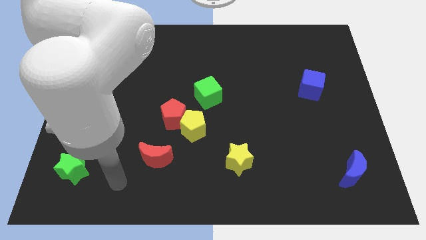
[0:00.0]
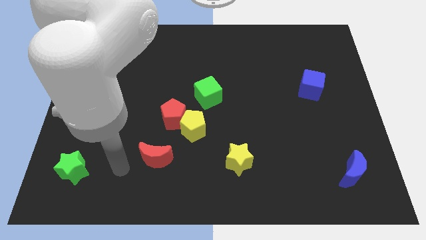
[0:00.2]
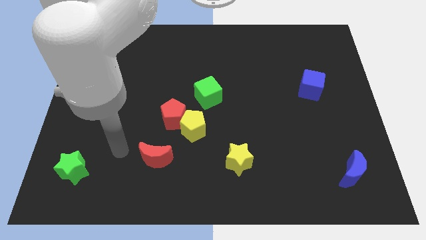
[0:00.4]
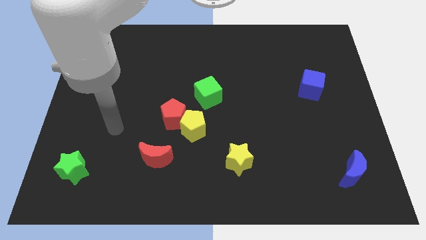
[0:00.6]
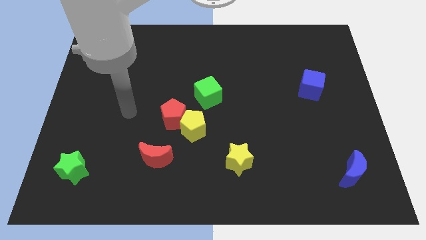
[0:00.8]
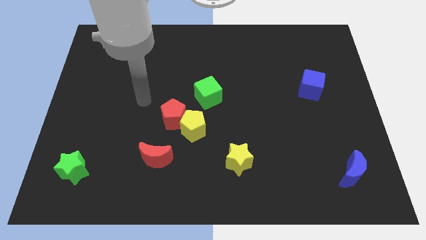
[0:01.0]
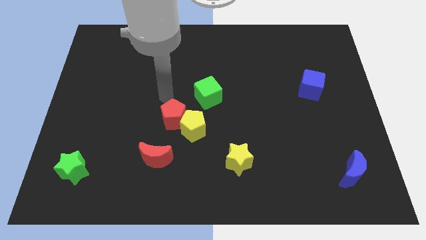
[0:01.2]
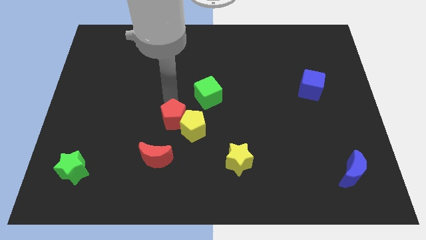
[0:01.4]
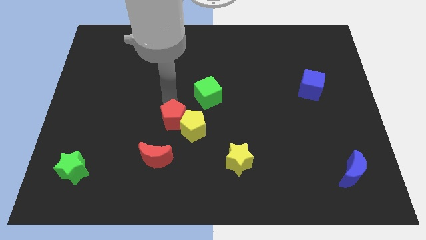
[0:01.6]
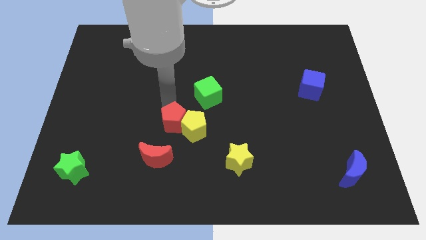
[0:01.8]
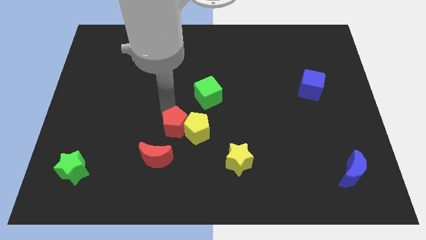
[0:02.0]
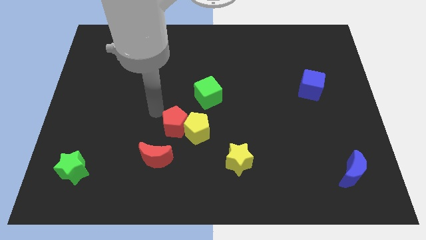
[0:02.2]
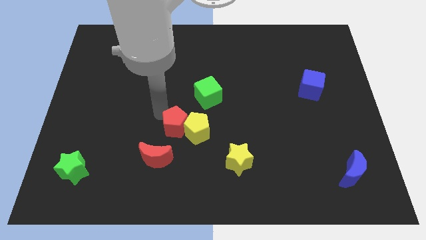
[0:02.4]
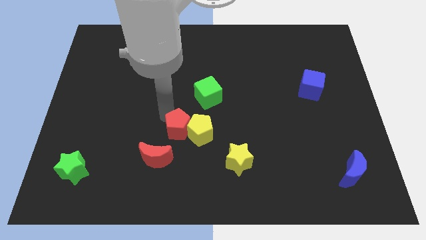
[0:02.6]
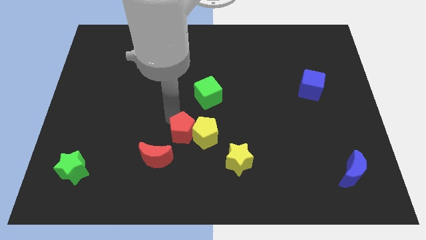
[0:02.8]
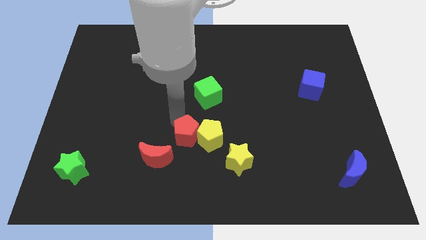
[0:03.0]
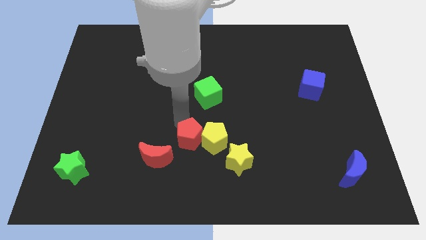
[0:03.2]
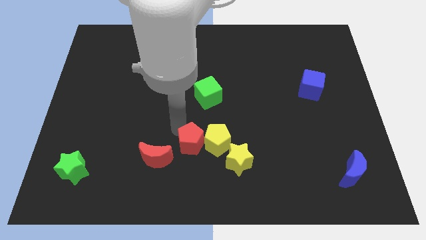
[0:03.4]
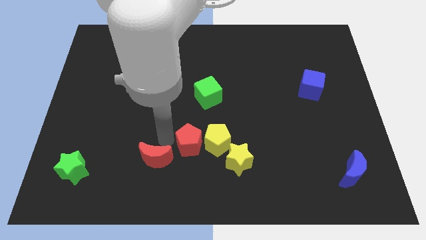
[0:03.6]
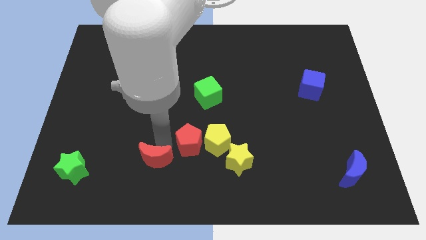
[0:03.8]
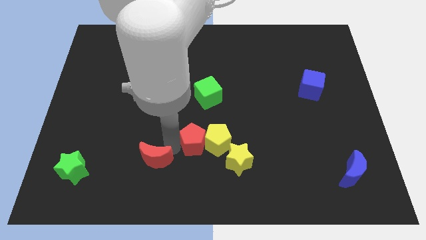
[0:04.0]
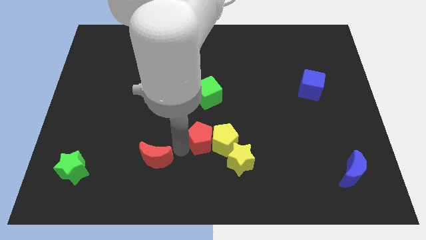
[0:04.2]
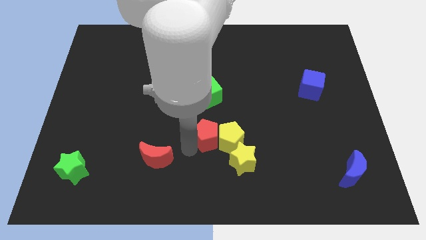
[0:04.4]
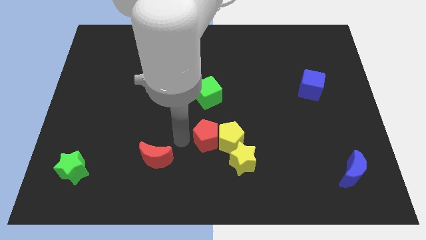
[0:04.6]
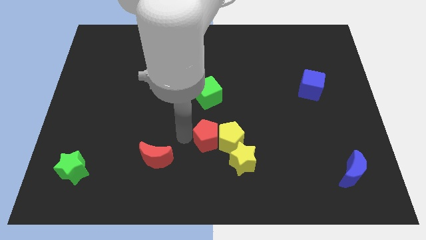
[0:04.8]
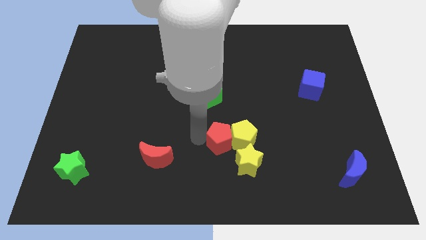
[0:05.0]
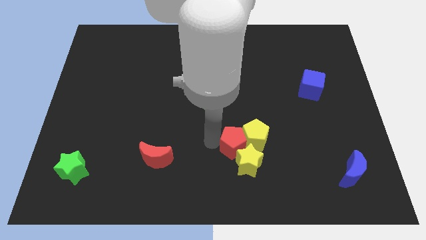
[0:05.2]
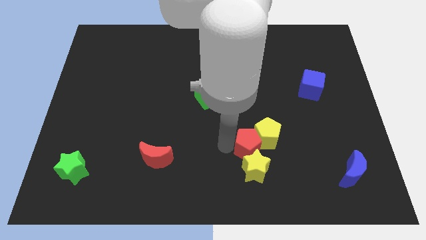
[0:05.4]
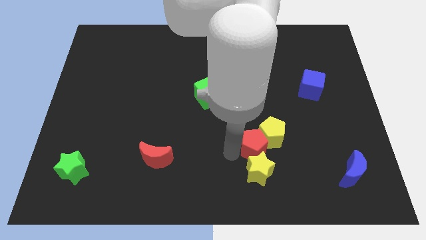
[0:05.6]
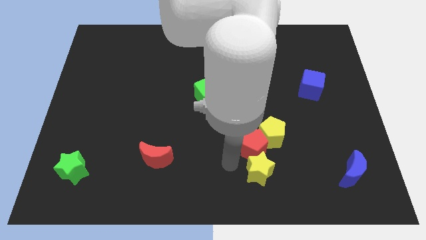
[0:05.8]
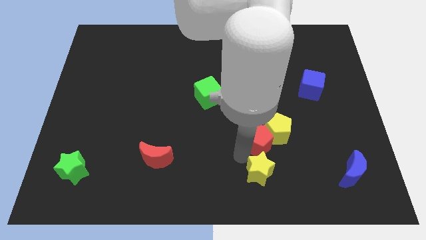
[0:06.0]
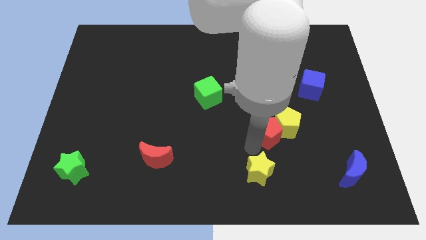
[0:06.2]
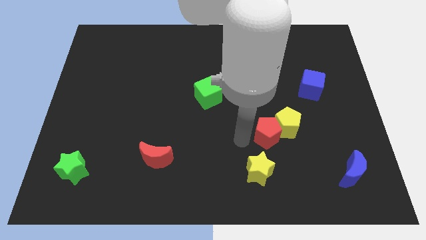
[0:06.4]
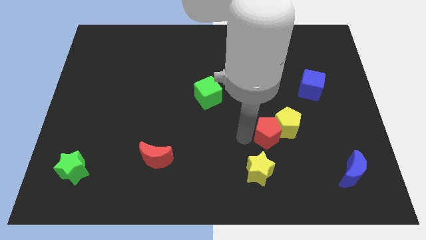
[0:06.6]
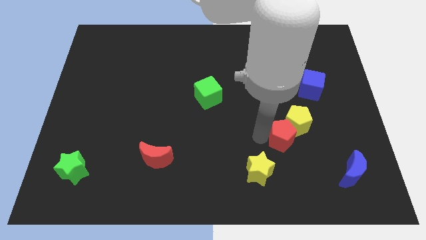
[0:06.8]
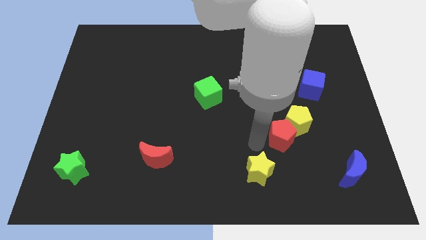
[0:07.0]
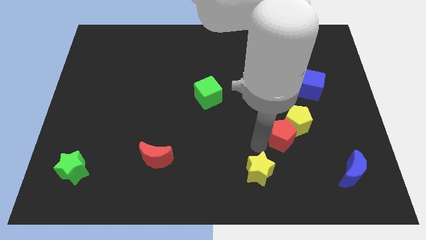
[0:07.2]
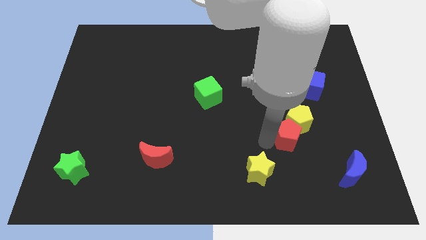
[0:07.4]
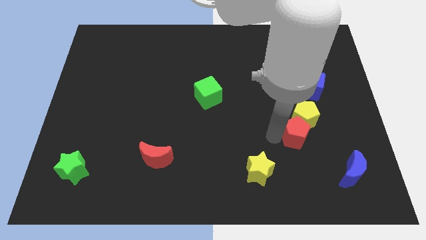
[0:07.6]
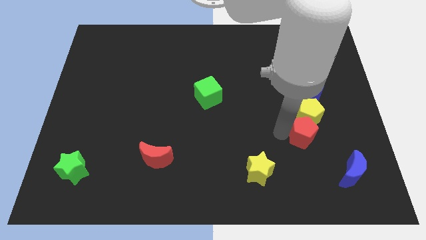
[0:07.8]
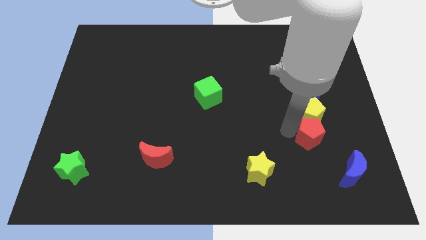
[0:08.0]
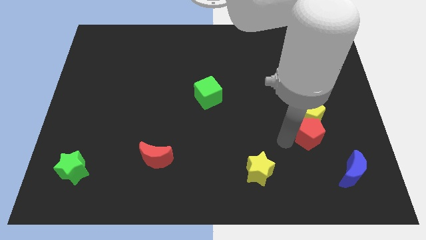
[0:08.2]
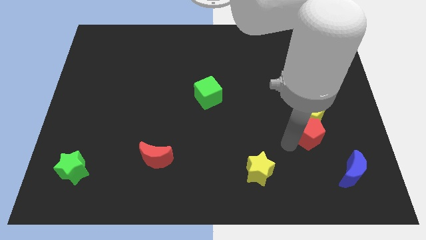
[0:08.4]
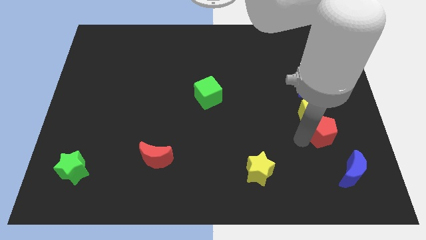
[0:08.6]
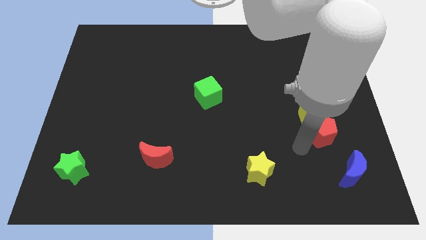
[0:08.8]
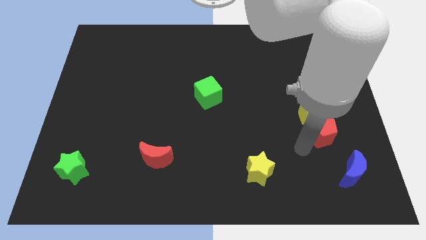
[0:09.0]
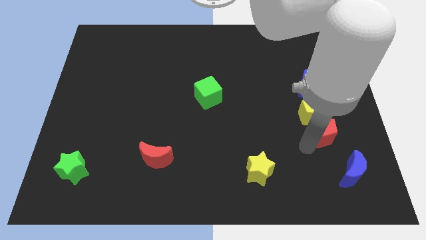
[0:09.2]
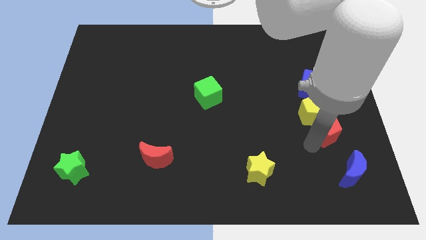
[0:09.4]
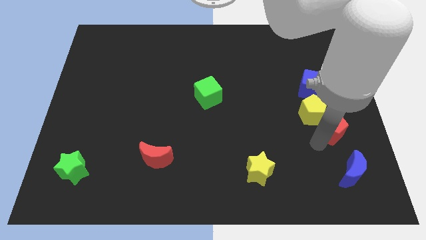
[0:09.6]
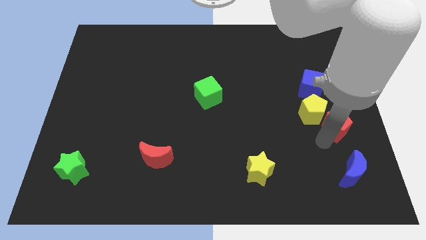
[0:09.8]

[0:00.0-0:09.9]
slide the red pentagon to the right side
